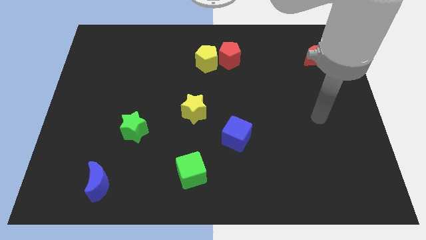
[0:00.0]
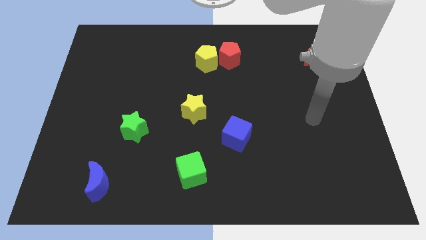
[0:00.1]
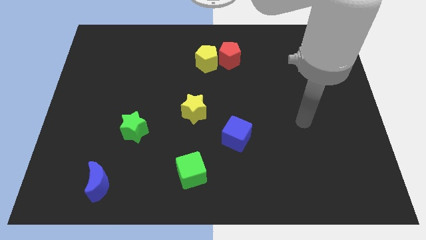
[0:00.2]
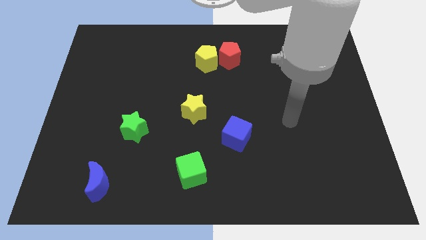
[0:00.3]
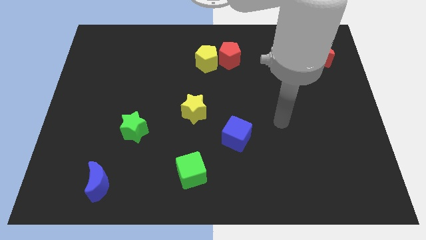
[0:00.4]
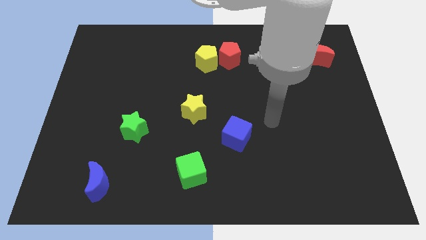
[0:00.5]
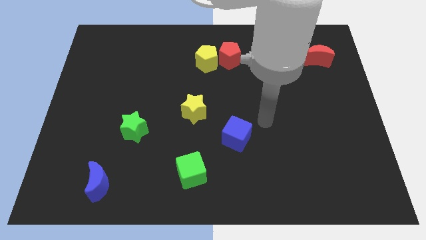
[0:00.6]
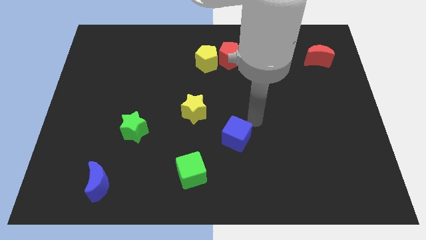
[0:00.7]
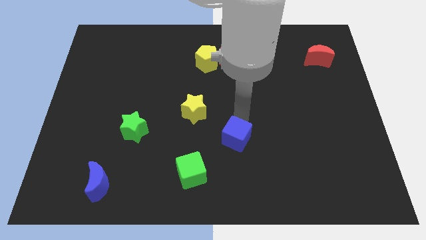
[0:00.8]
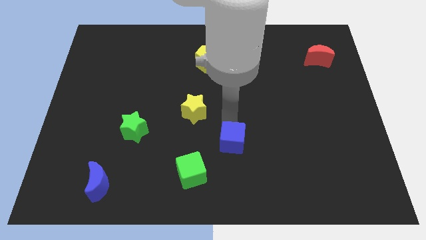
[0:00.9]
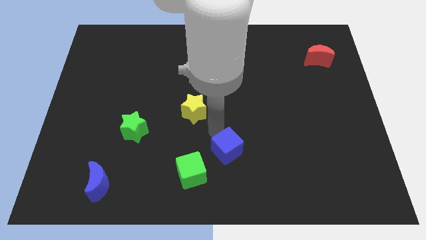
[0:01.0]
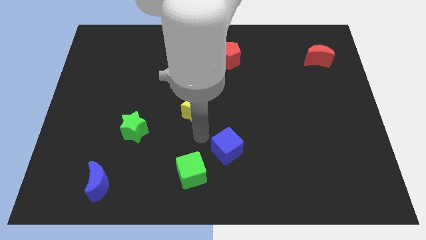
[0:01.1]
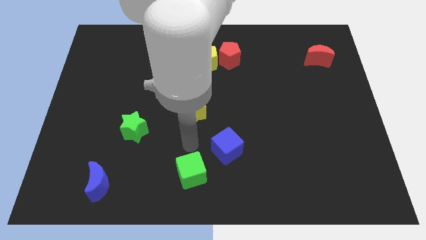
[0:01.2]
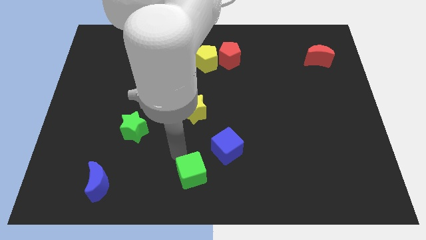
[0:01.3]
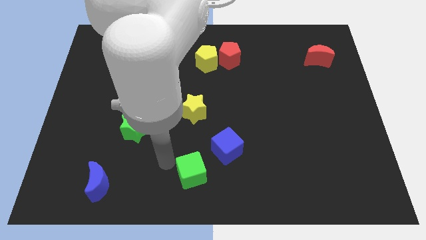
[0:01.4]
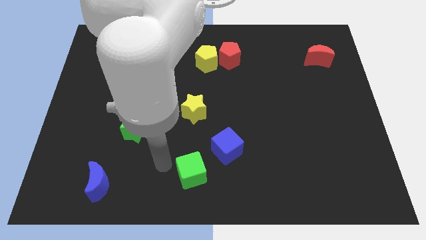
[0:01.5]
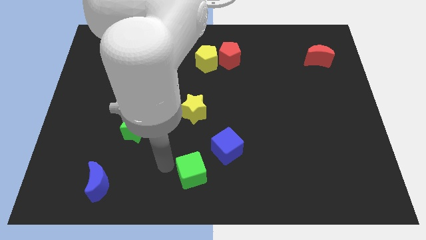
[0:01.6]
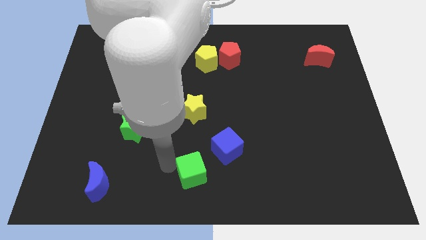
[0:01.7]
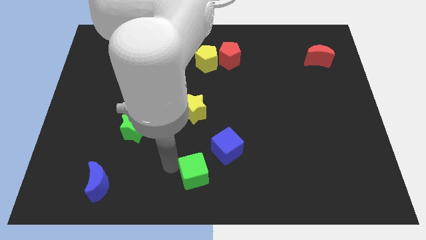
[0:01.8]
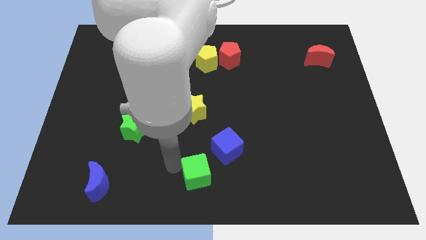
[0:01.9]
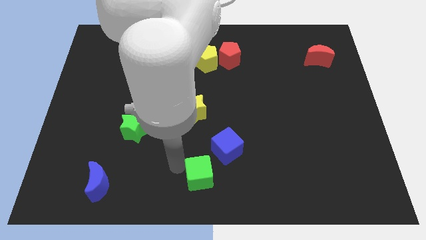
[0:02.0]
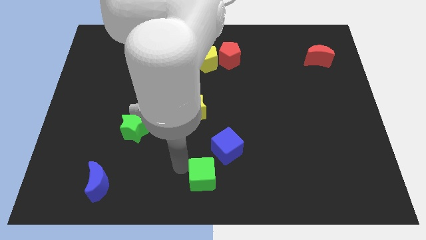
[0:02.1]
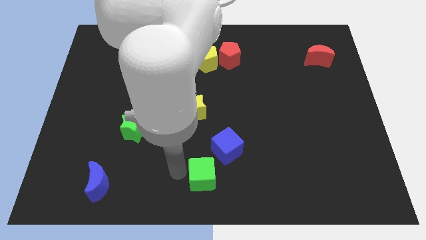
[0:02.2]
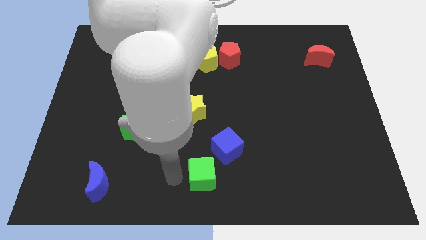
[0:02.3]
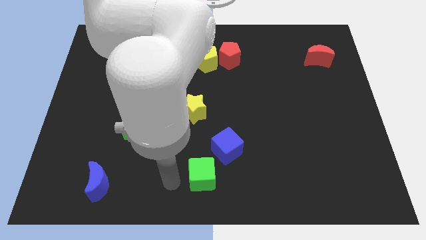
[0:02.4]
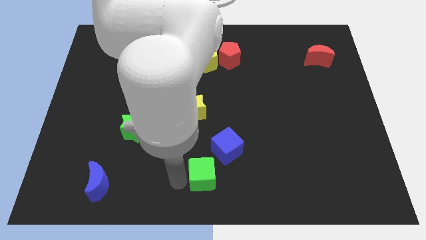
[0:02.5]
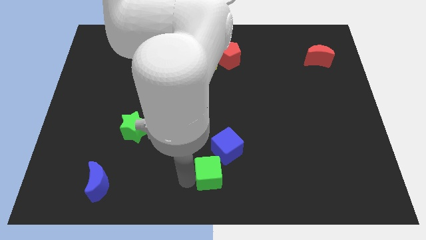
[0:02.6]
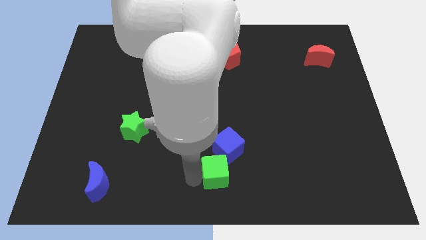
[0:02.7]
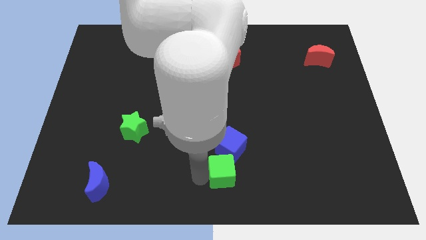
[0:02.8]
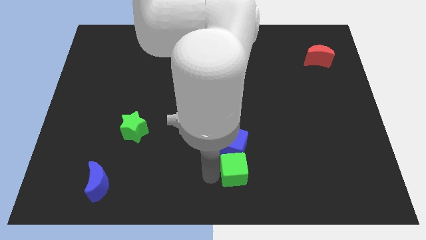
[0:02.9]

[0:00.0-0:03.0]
slide the green cube a little bit right

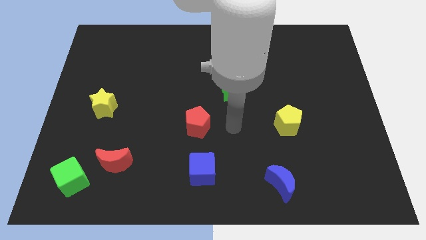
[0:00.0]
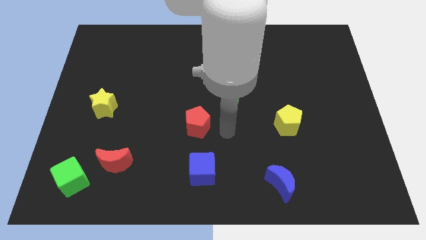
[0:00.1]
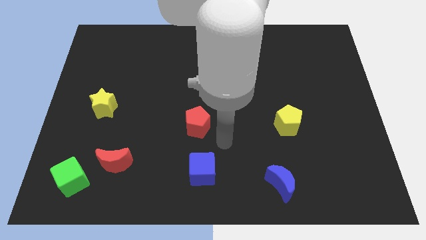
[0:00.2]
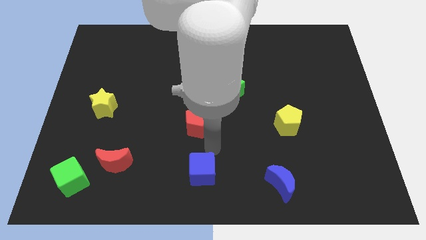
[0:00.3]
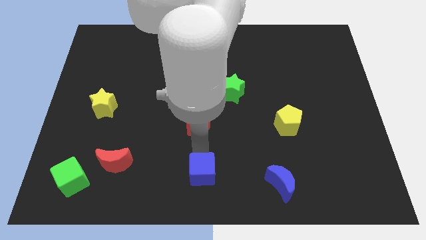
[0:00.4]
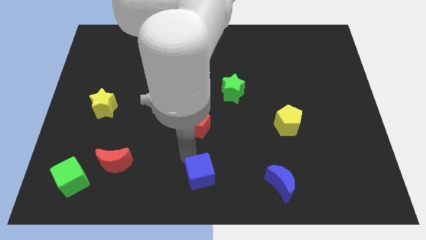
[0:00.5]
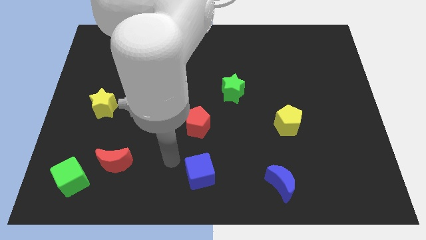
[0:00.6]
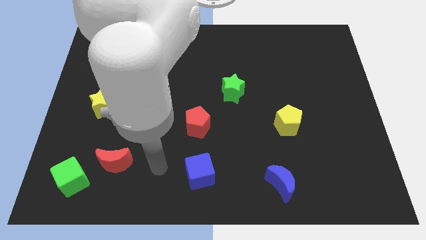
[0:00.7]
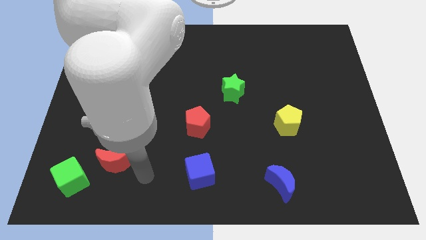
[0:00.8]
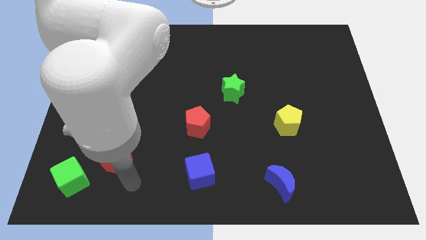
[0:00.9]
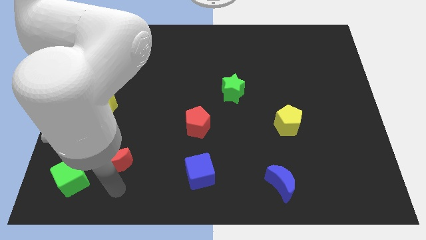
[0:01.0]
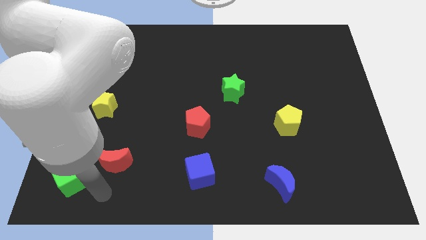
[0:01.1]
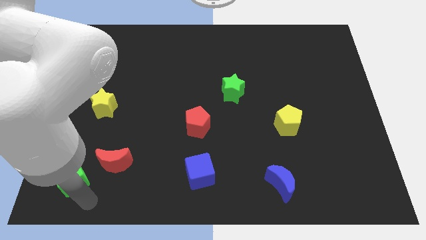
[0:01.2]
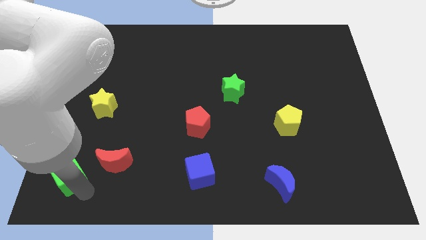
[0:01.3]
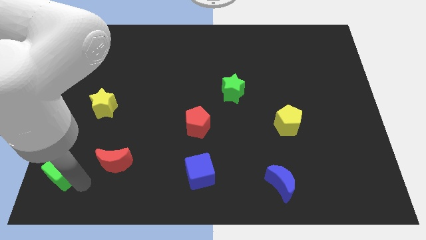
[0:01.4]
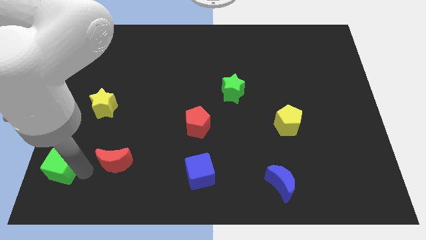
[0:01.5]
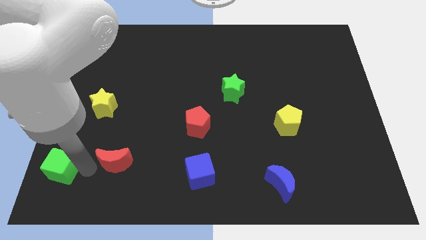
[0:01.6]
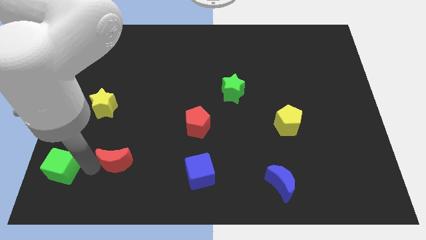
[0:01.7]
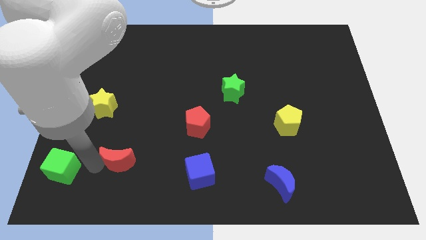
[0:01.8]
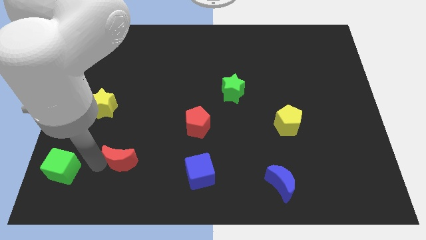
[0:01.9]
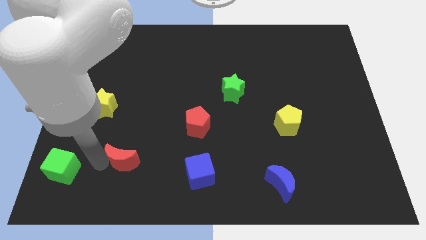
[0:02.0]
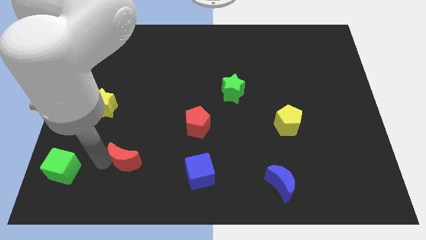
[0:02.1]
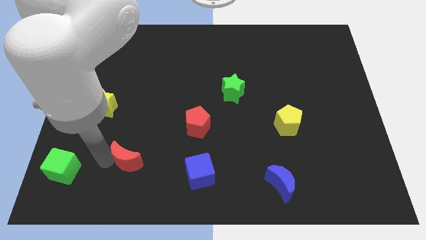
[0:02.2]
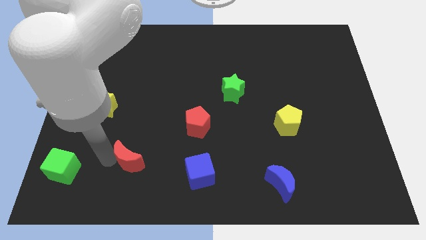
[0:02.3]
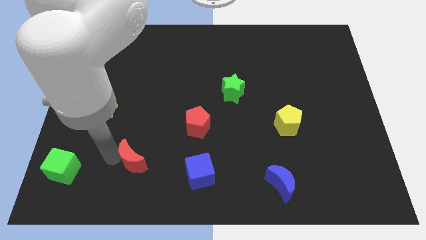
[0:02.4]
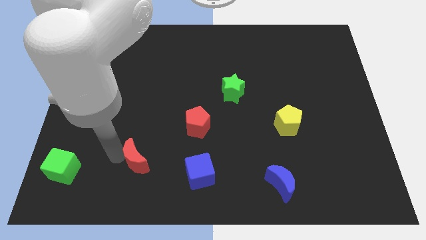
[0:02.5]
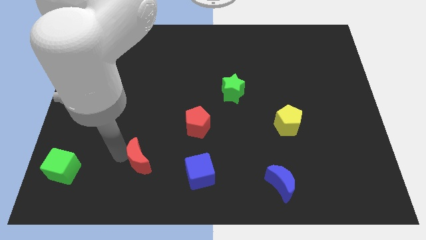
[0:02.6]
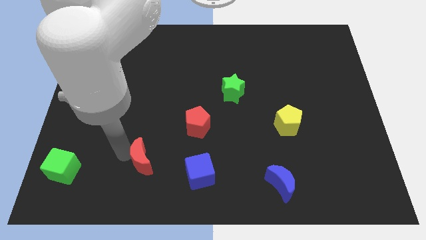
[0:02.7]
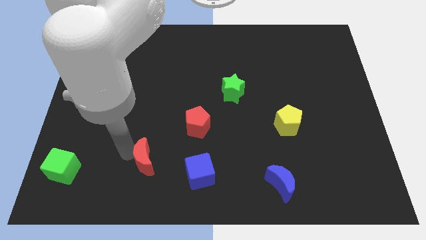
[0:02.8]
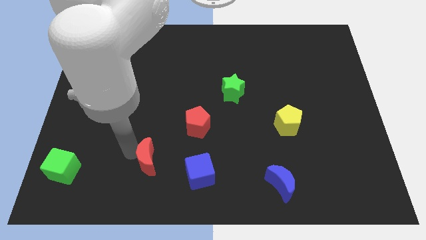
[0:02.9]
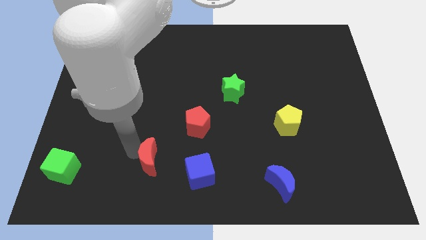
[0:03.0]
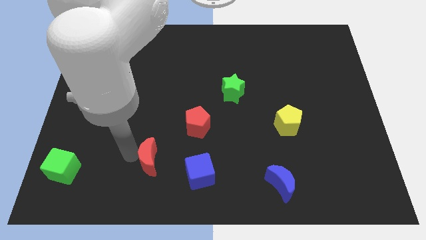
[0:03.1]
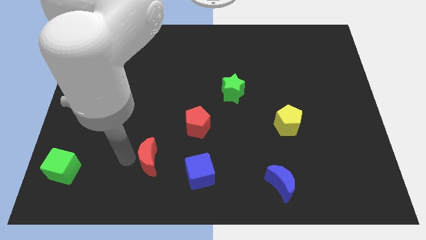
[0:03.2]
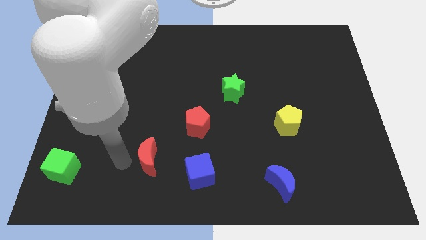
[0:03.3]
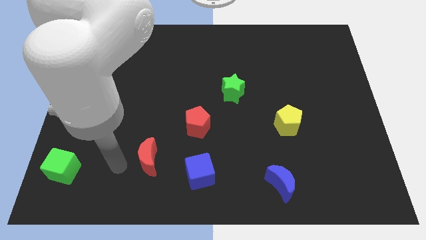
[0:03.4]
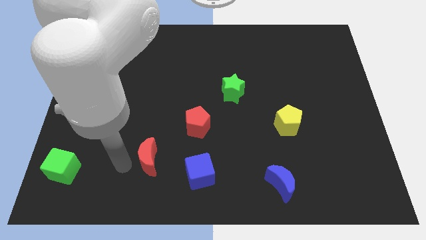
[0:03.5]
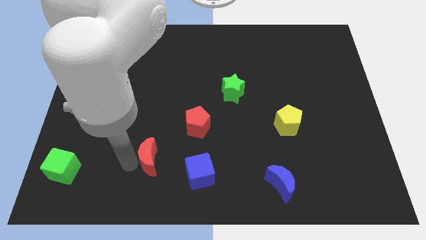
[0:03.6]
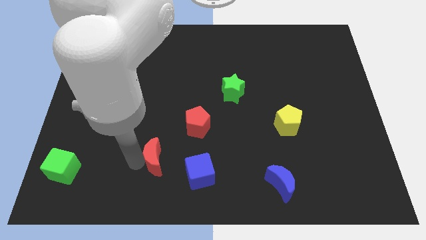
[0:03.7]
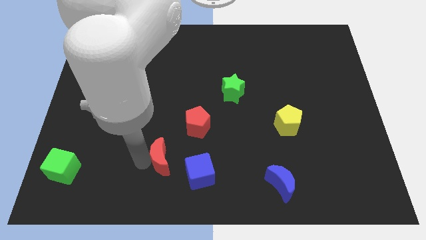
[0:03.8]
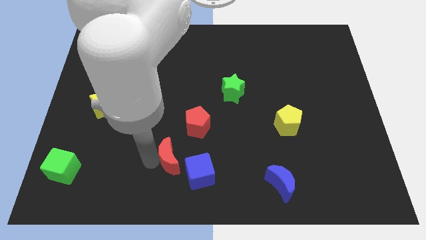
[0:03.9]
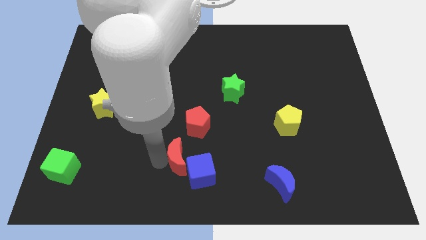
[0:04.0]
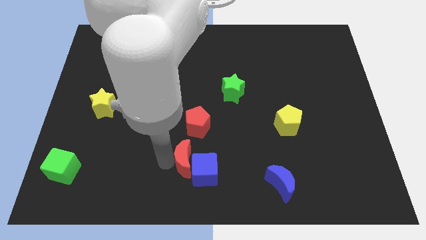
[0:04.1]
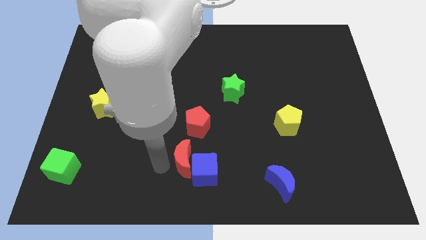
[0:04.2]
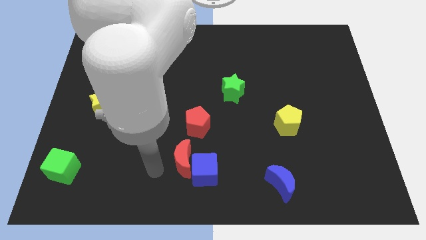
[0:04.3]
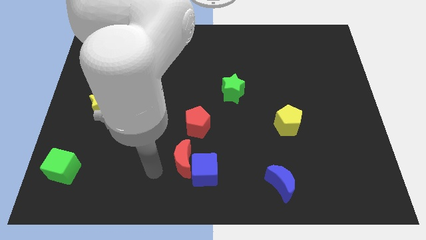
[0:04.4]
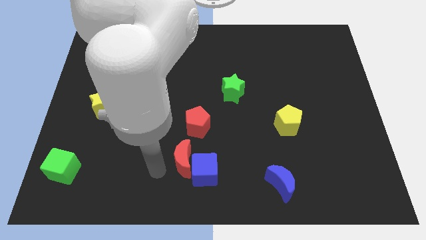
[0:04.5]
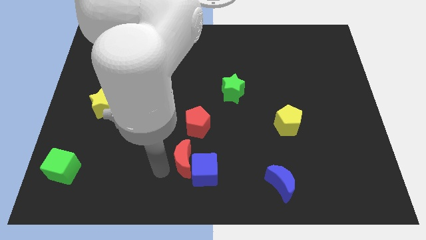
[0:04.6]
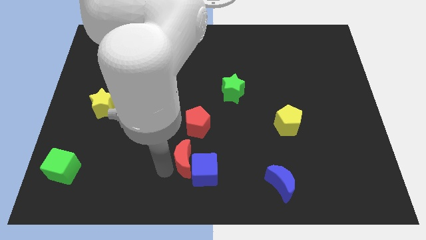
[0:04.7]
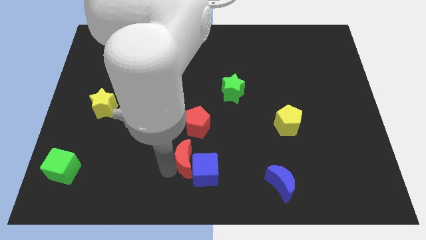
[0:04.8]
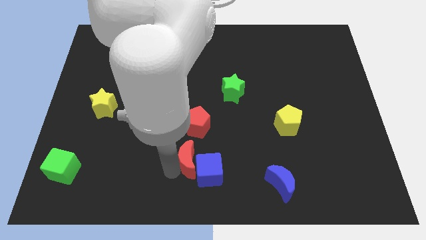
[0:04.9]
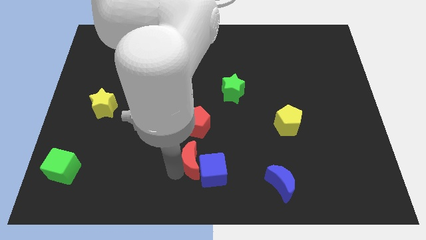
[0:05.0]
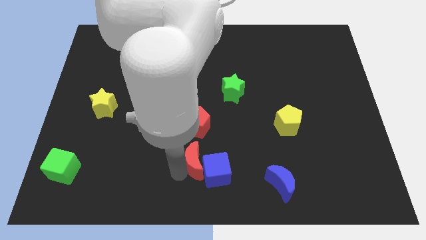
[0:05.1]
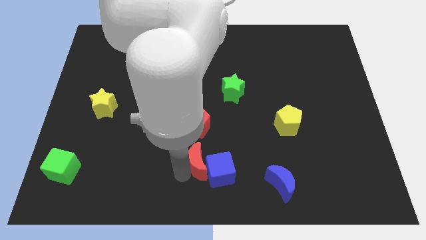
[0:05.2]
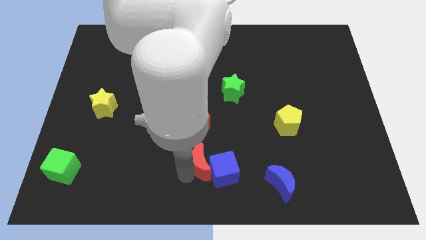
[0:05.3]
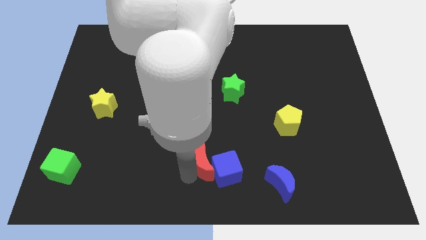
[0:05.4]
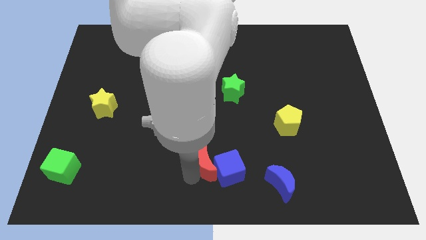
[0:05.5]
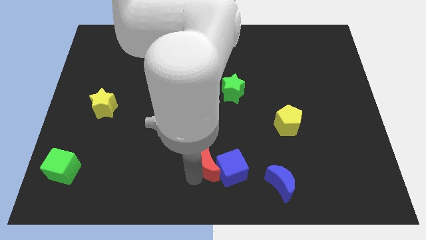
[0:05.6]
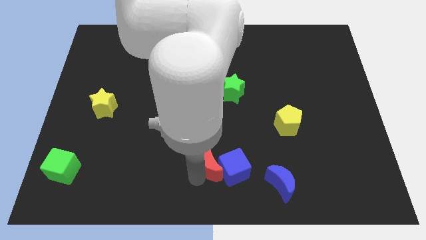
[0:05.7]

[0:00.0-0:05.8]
move the red moon to the right
